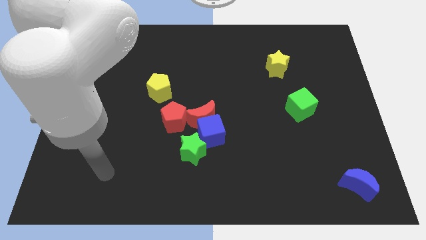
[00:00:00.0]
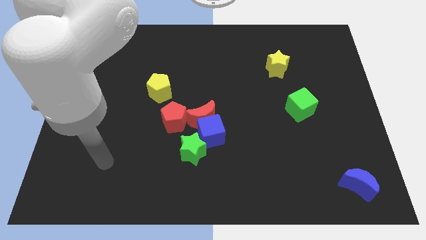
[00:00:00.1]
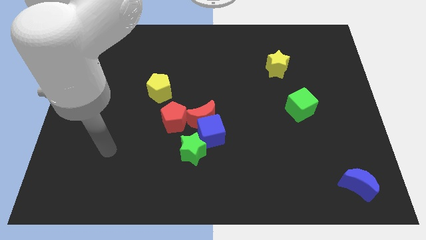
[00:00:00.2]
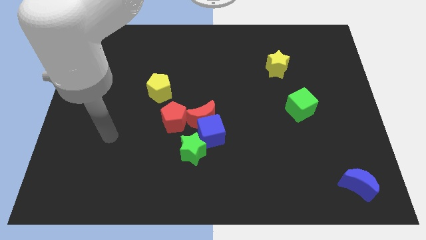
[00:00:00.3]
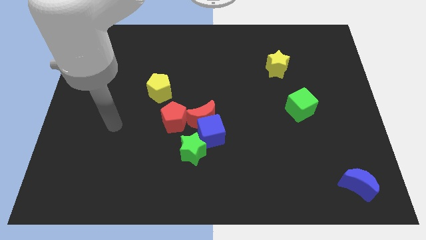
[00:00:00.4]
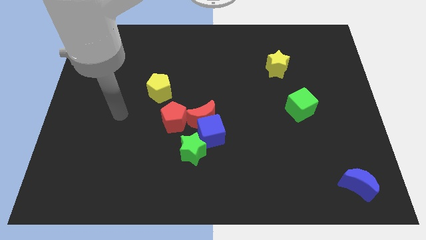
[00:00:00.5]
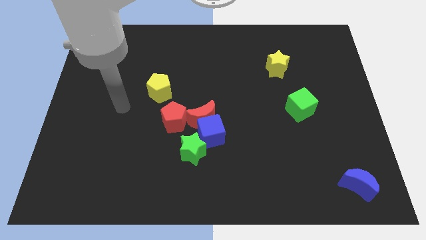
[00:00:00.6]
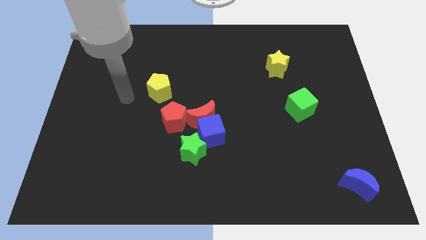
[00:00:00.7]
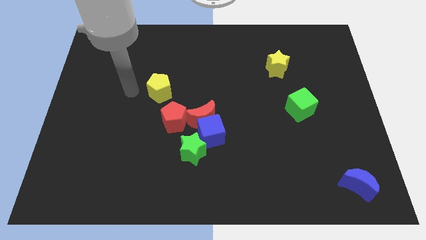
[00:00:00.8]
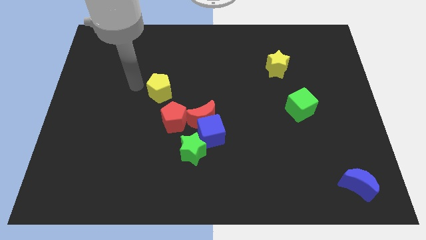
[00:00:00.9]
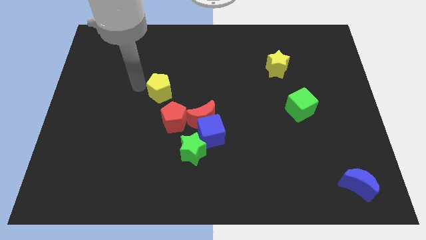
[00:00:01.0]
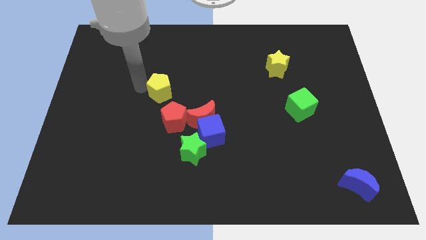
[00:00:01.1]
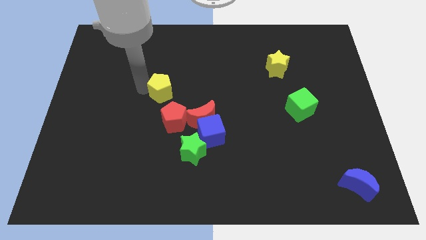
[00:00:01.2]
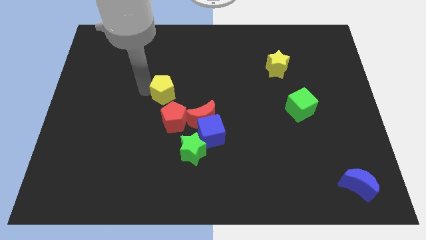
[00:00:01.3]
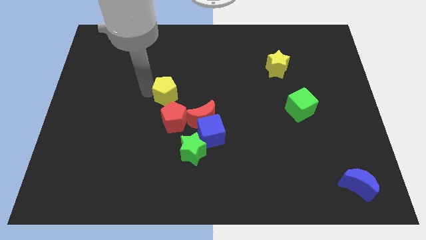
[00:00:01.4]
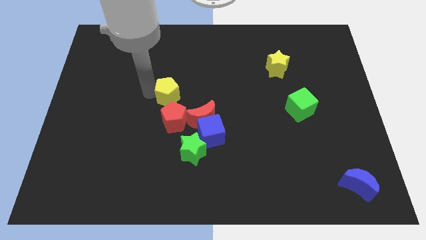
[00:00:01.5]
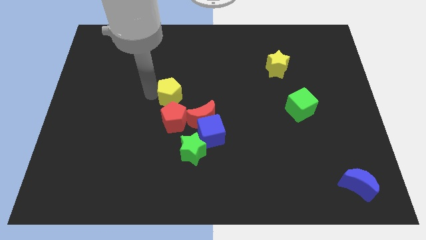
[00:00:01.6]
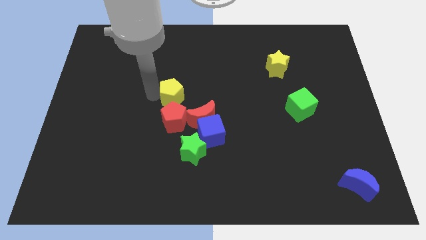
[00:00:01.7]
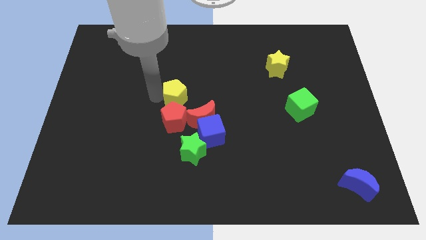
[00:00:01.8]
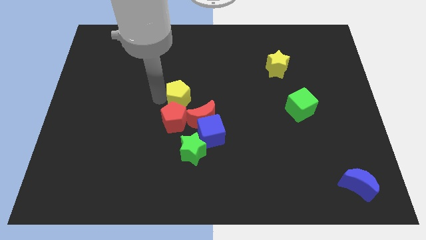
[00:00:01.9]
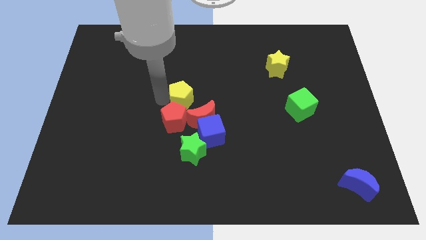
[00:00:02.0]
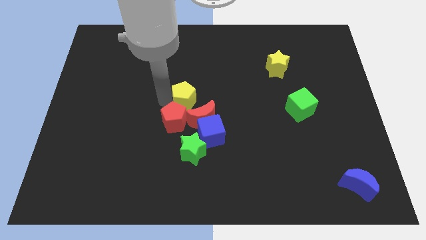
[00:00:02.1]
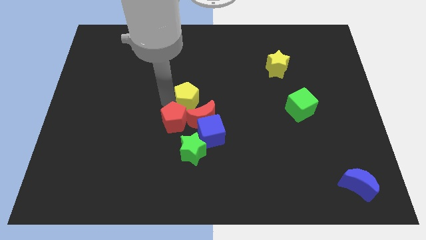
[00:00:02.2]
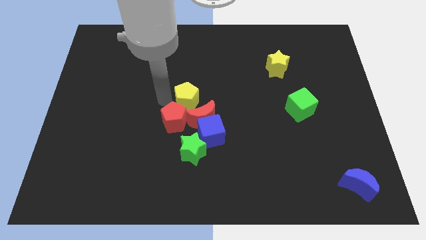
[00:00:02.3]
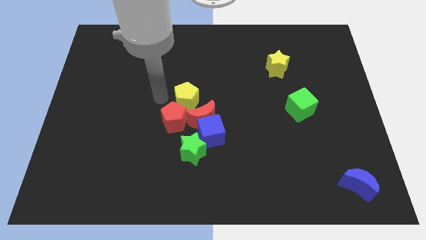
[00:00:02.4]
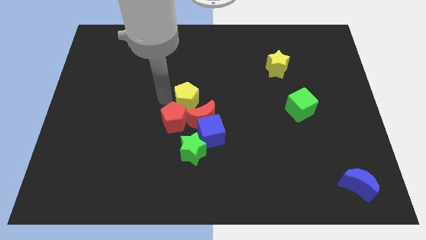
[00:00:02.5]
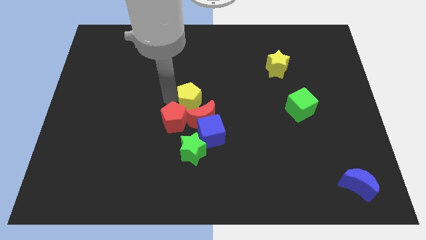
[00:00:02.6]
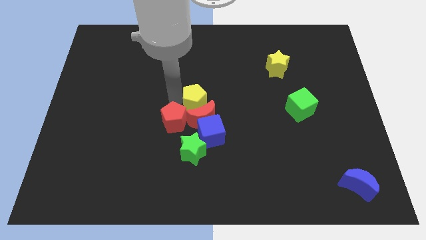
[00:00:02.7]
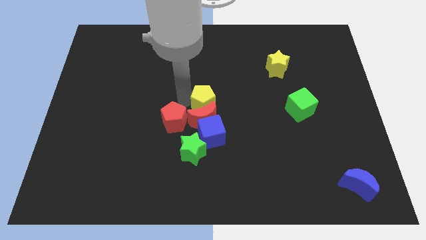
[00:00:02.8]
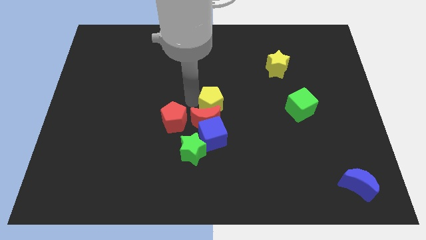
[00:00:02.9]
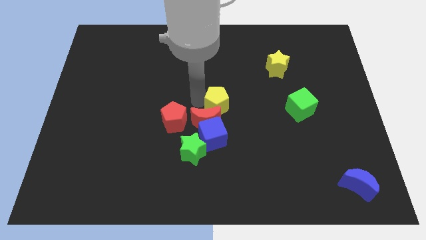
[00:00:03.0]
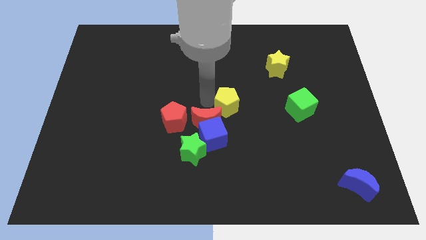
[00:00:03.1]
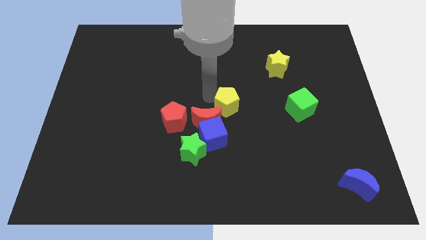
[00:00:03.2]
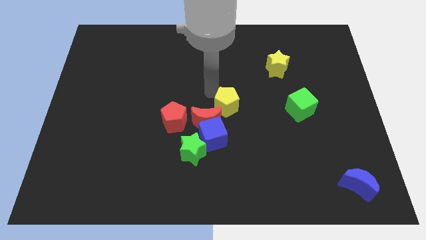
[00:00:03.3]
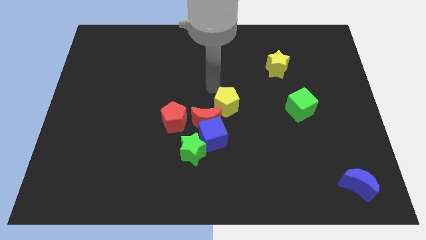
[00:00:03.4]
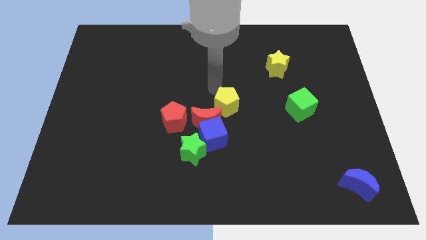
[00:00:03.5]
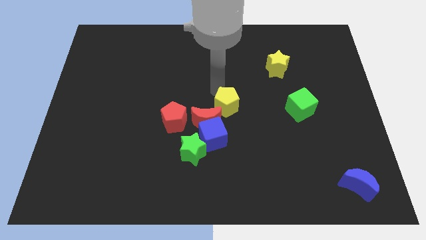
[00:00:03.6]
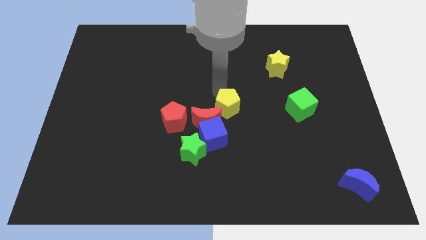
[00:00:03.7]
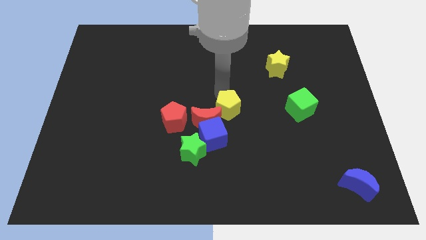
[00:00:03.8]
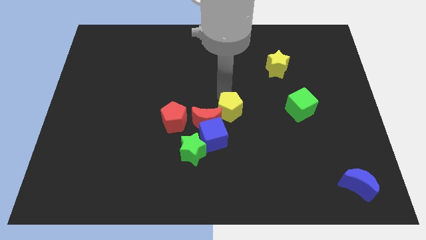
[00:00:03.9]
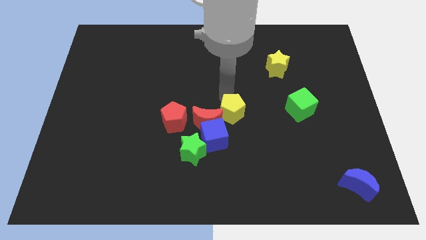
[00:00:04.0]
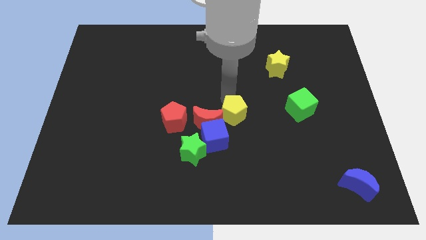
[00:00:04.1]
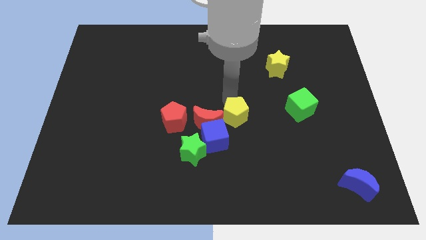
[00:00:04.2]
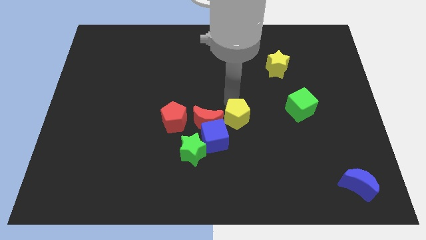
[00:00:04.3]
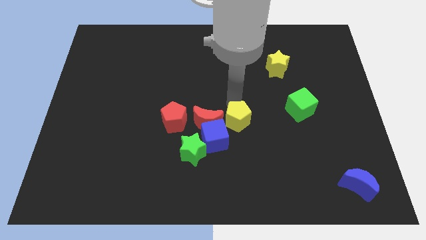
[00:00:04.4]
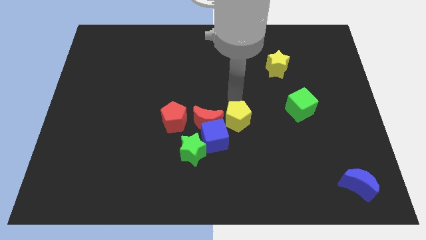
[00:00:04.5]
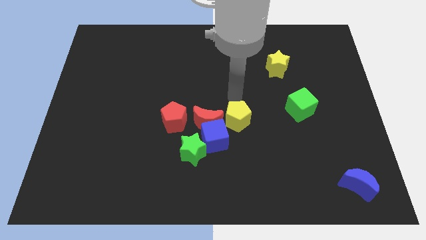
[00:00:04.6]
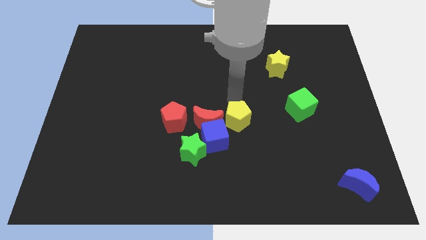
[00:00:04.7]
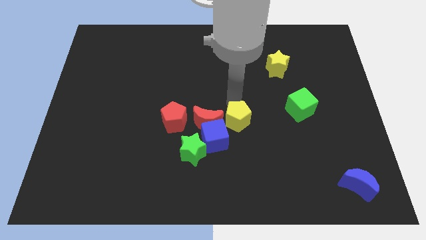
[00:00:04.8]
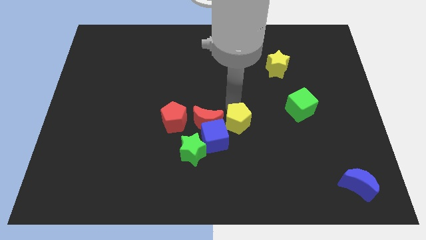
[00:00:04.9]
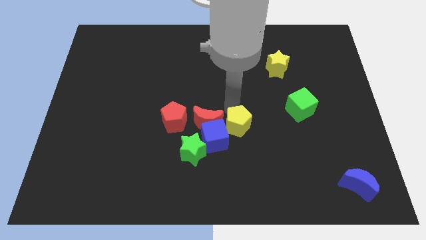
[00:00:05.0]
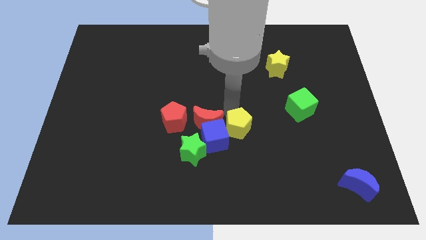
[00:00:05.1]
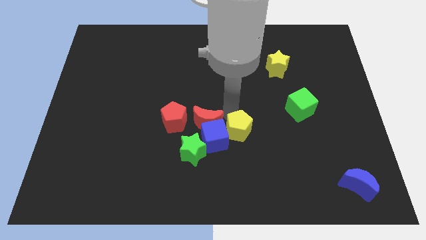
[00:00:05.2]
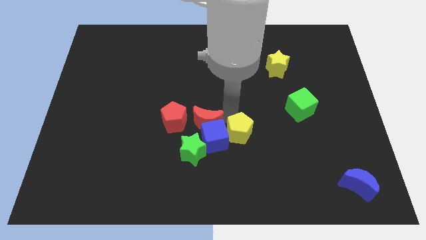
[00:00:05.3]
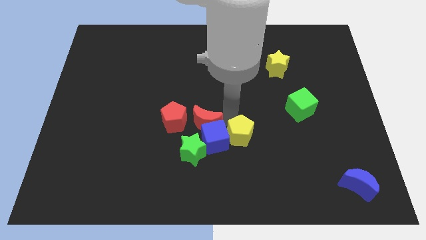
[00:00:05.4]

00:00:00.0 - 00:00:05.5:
slide the yellow pentagon right of the green star

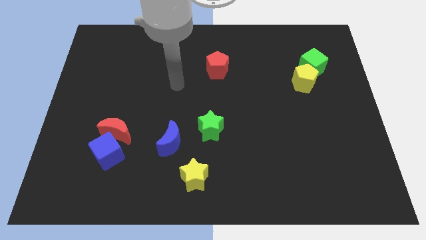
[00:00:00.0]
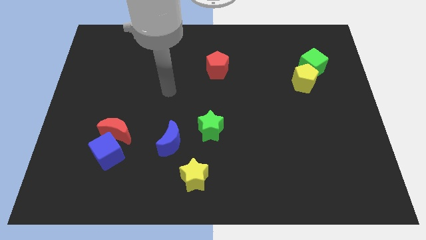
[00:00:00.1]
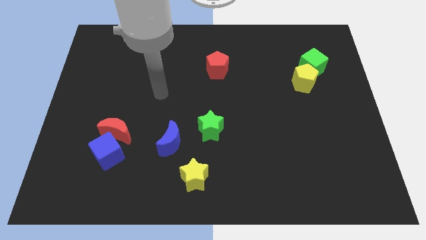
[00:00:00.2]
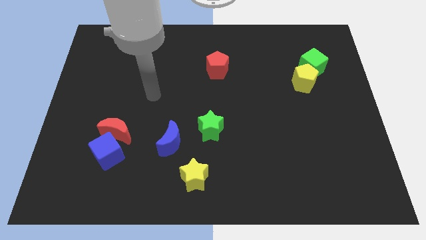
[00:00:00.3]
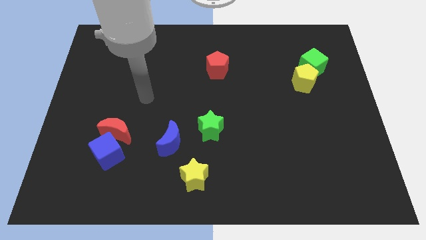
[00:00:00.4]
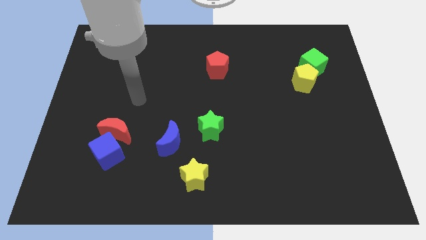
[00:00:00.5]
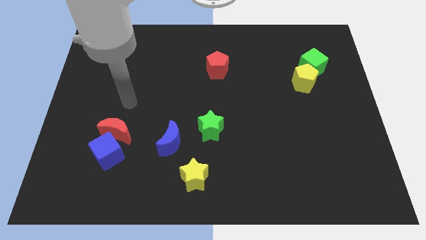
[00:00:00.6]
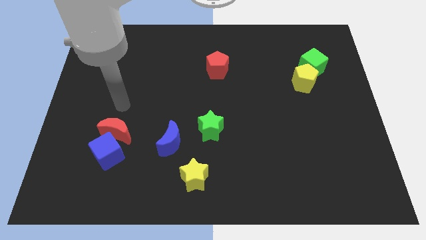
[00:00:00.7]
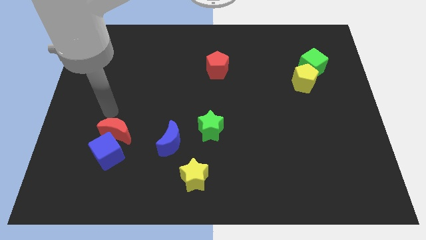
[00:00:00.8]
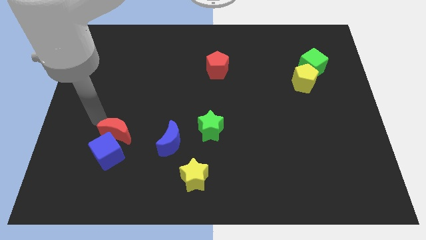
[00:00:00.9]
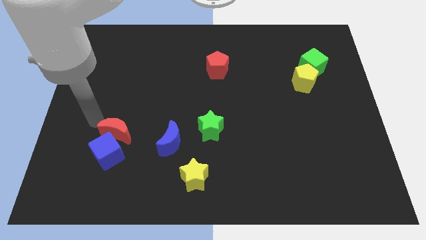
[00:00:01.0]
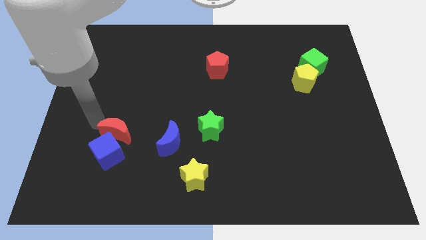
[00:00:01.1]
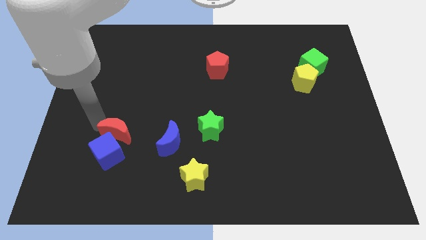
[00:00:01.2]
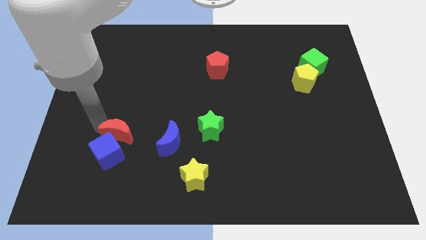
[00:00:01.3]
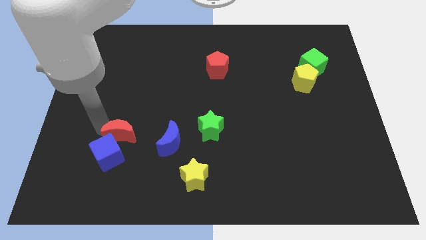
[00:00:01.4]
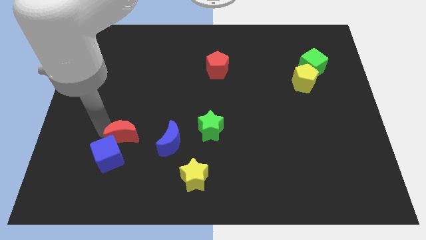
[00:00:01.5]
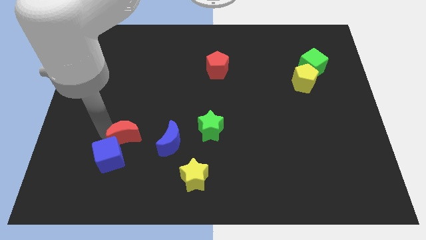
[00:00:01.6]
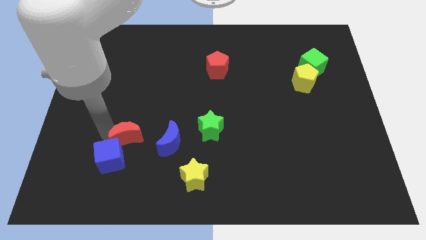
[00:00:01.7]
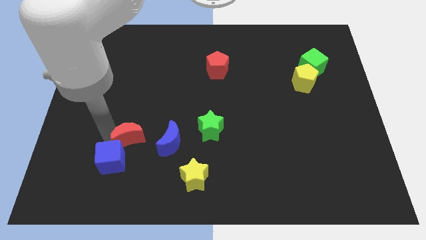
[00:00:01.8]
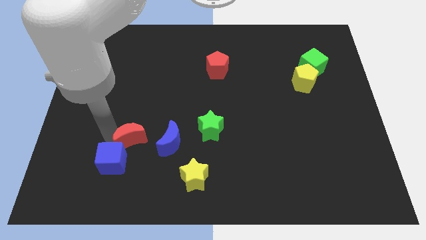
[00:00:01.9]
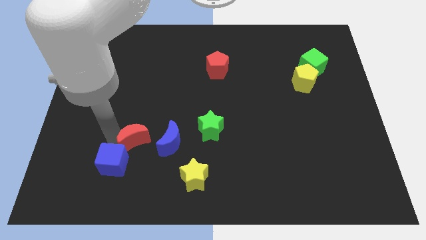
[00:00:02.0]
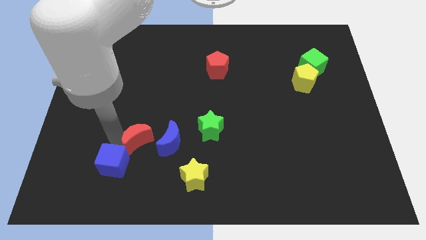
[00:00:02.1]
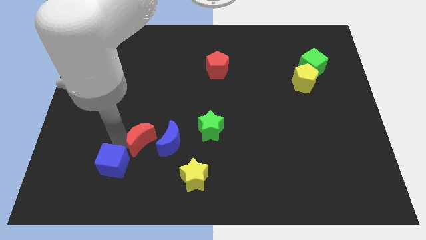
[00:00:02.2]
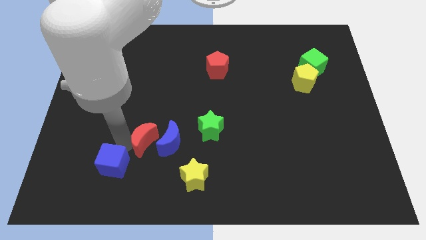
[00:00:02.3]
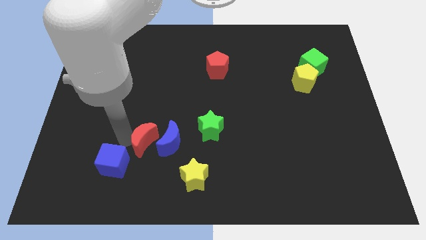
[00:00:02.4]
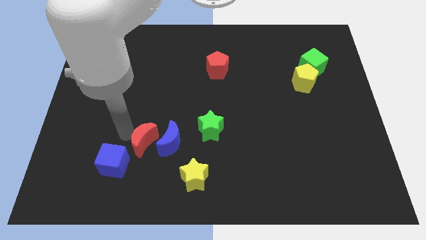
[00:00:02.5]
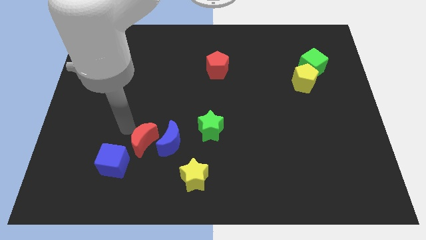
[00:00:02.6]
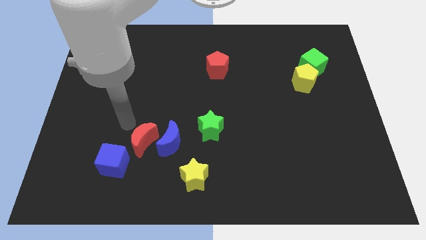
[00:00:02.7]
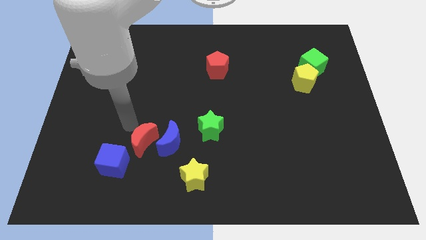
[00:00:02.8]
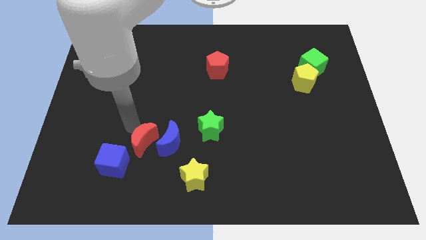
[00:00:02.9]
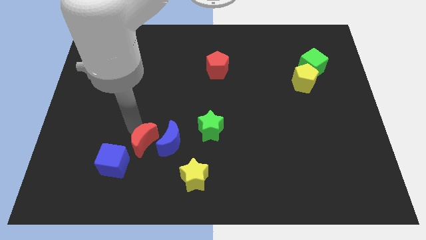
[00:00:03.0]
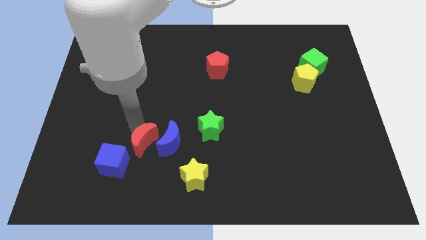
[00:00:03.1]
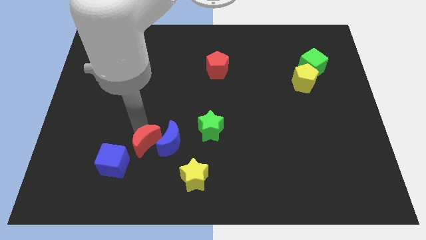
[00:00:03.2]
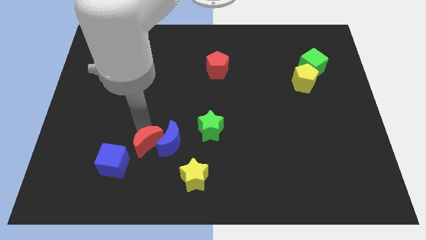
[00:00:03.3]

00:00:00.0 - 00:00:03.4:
put the red moon to the right side of the blue cube
